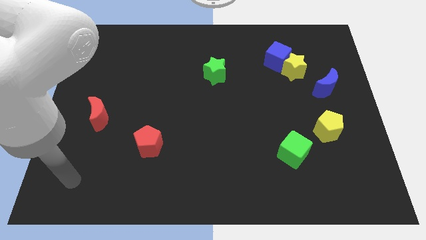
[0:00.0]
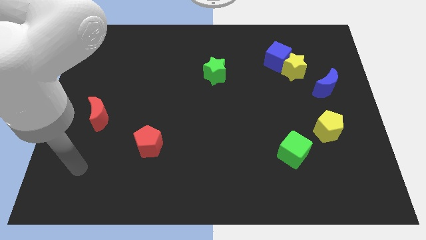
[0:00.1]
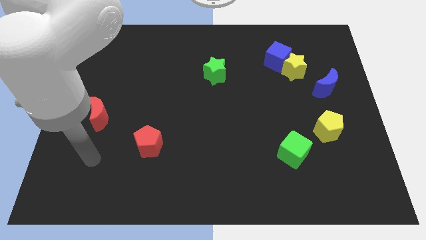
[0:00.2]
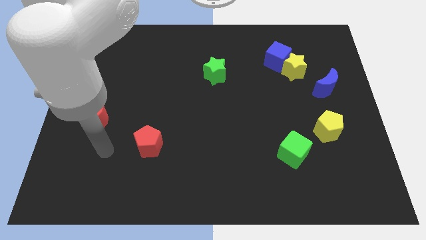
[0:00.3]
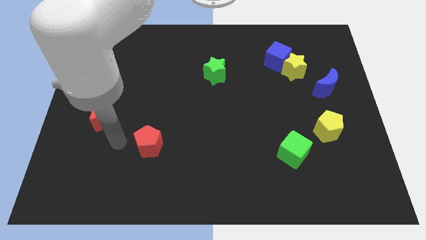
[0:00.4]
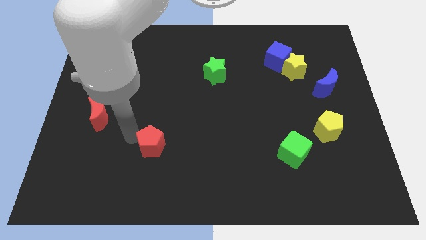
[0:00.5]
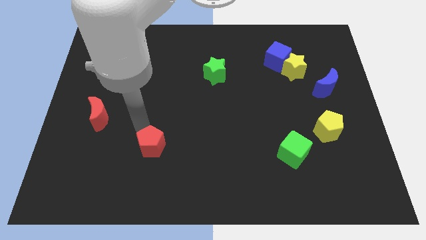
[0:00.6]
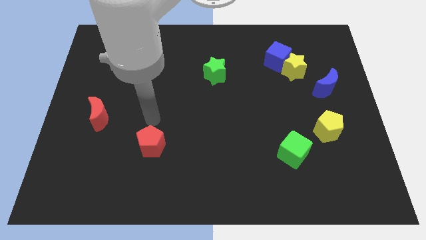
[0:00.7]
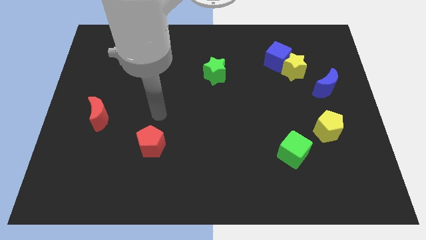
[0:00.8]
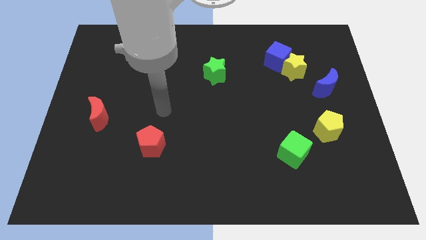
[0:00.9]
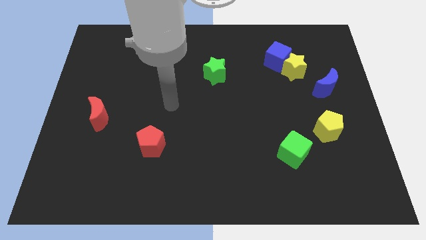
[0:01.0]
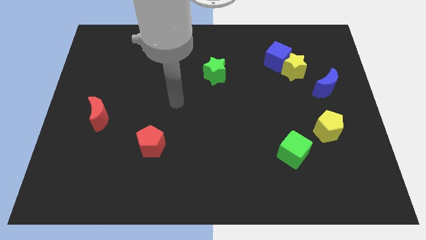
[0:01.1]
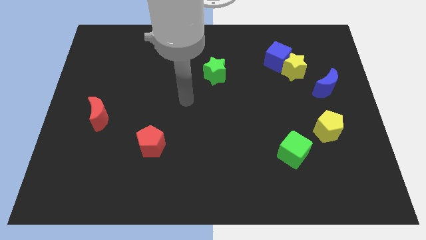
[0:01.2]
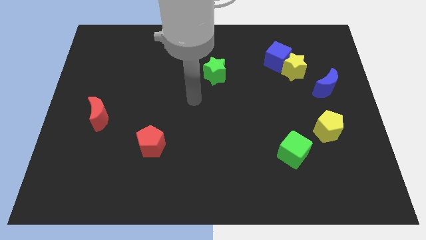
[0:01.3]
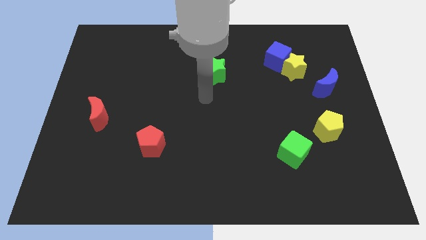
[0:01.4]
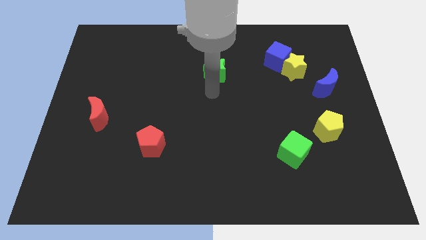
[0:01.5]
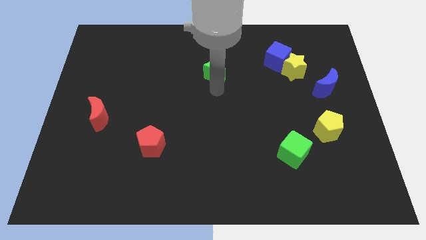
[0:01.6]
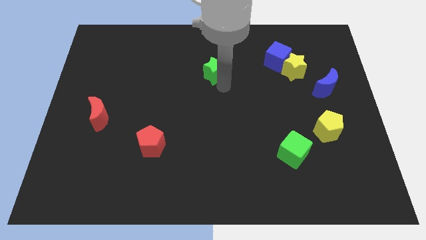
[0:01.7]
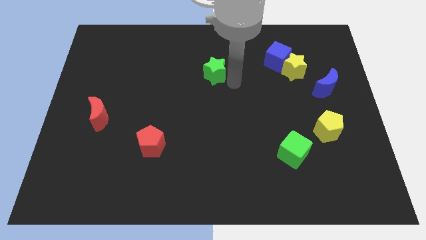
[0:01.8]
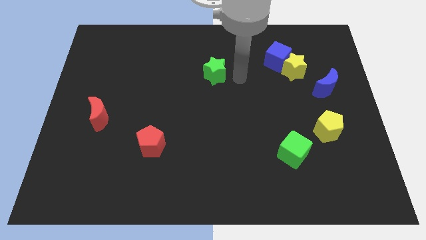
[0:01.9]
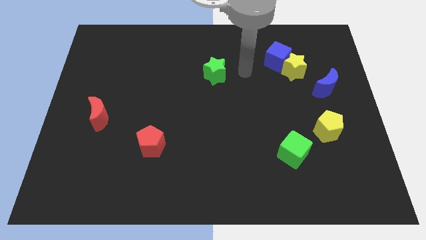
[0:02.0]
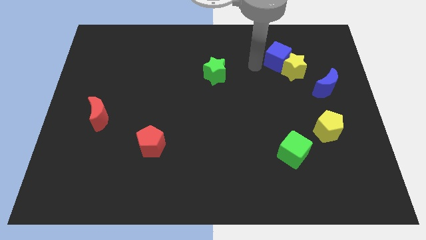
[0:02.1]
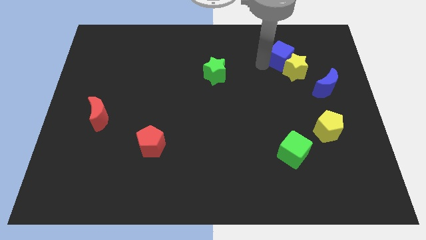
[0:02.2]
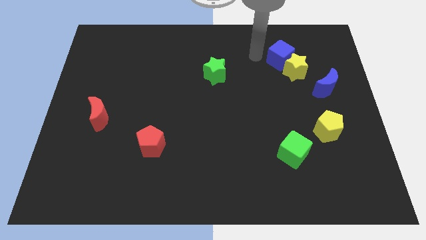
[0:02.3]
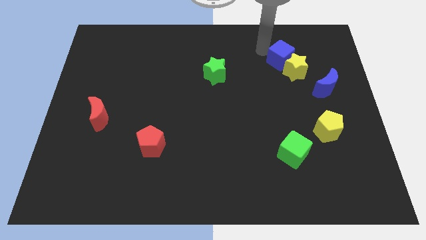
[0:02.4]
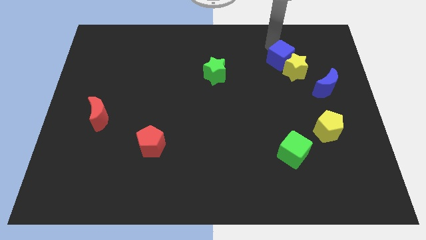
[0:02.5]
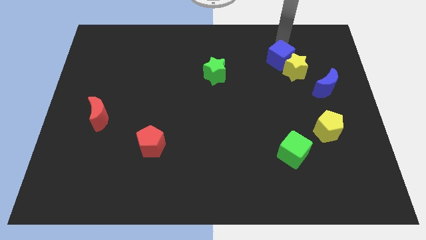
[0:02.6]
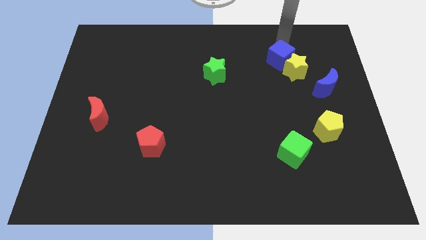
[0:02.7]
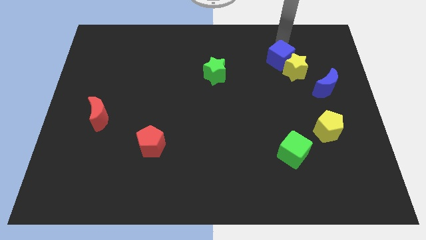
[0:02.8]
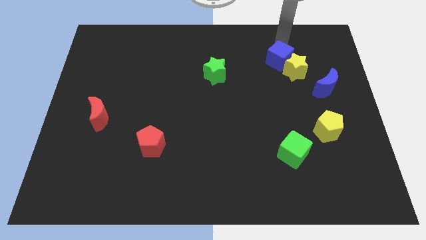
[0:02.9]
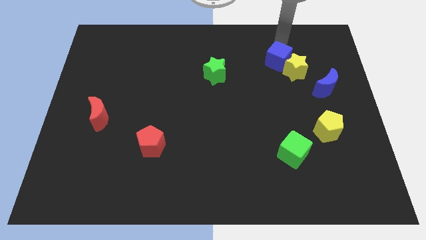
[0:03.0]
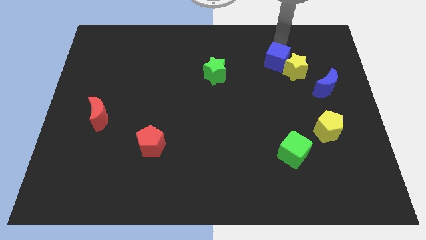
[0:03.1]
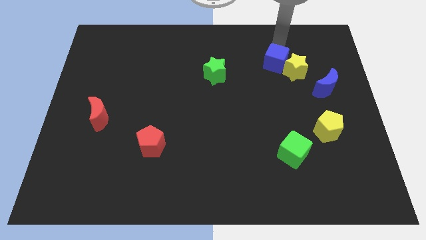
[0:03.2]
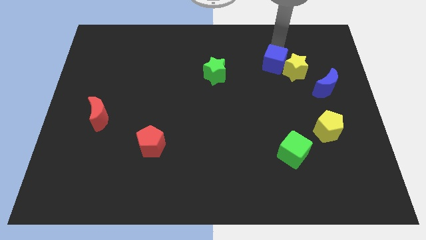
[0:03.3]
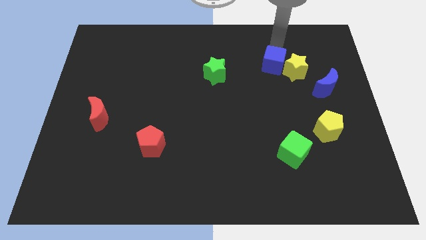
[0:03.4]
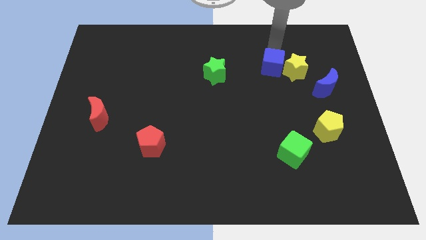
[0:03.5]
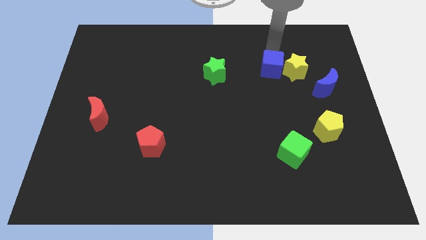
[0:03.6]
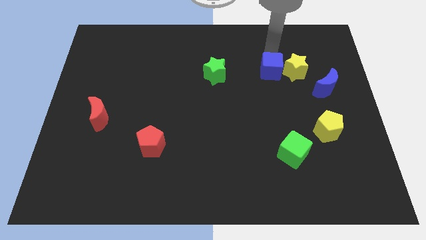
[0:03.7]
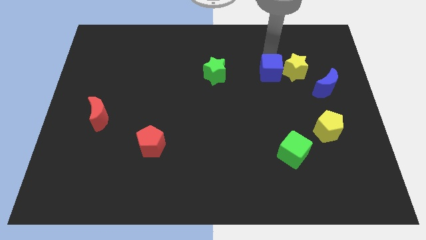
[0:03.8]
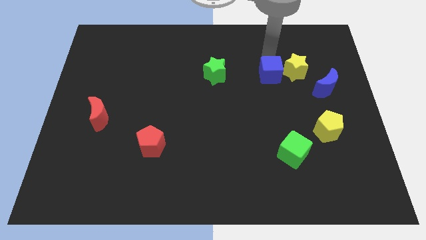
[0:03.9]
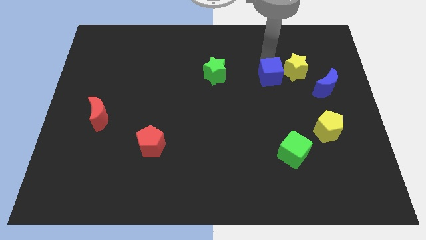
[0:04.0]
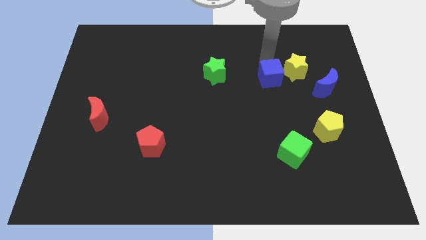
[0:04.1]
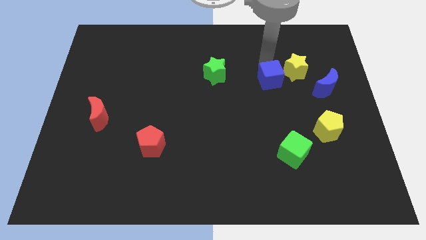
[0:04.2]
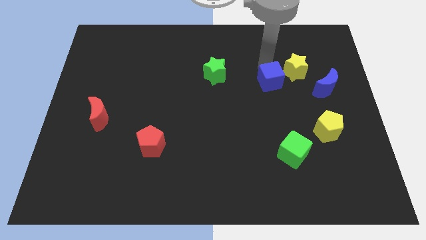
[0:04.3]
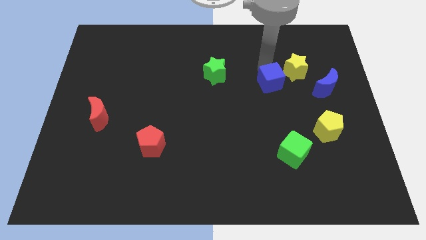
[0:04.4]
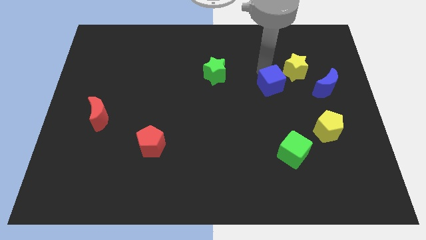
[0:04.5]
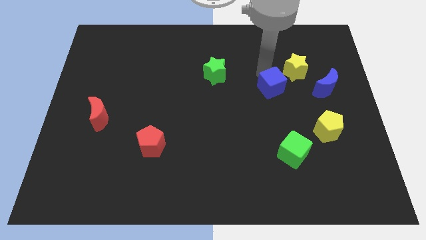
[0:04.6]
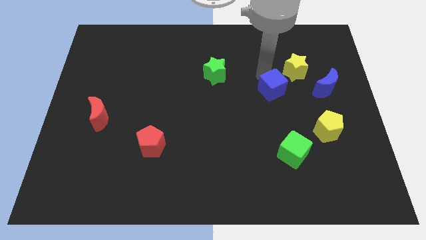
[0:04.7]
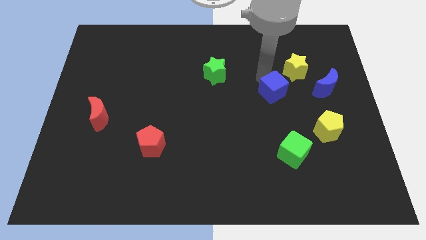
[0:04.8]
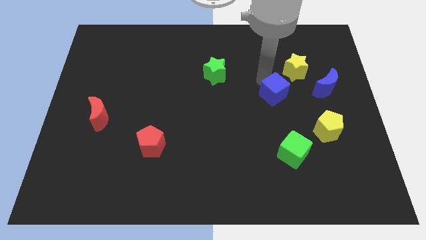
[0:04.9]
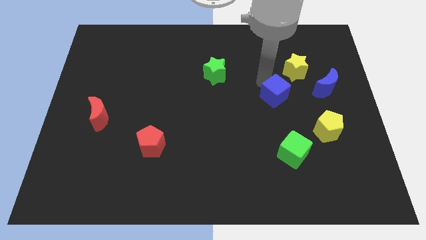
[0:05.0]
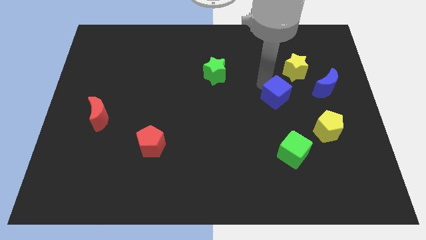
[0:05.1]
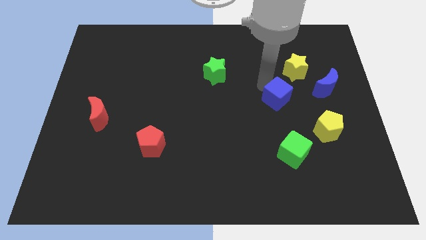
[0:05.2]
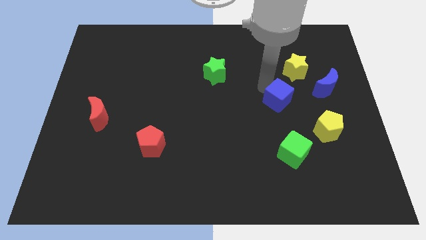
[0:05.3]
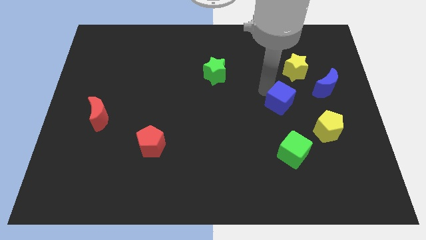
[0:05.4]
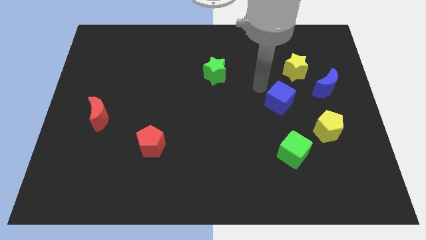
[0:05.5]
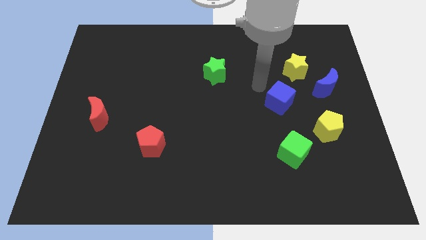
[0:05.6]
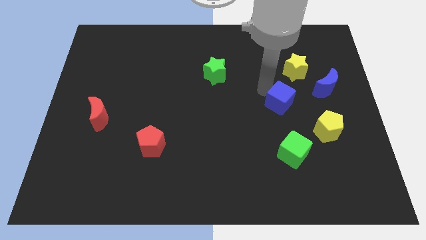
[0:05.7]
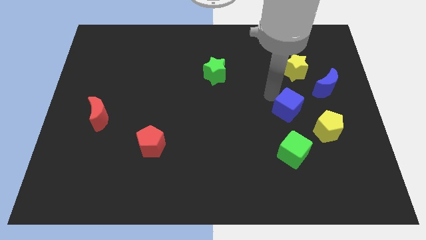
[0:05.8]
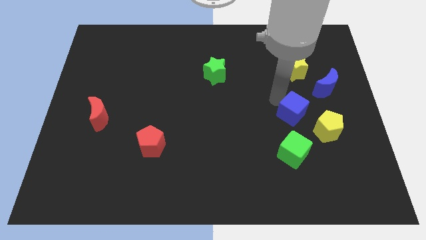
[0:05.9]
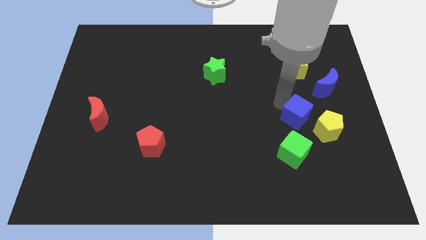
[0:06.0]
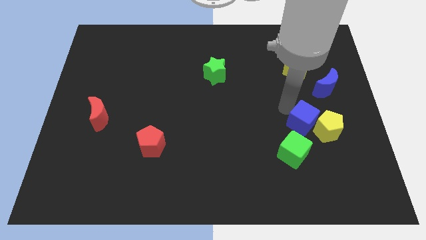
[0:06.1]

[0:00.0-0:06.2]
push the blue cube towards the yellow pentagon
